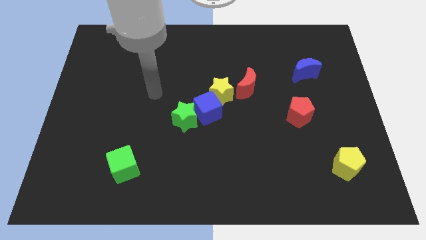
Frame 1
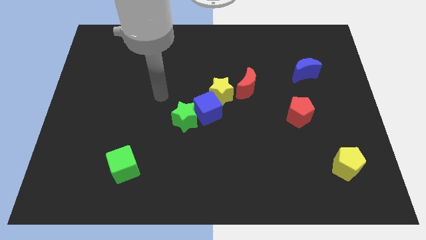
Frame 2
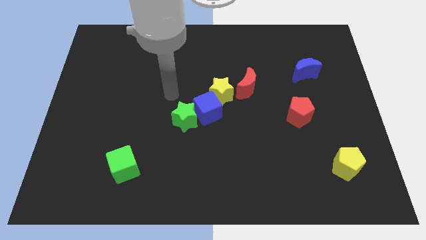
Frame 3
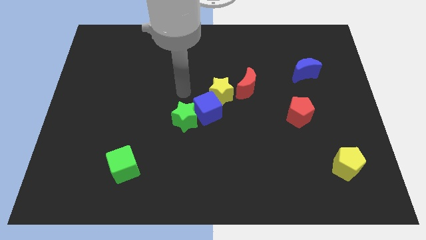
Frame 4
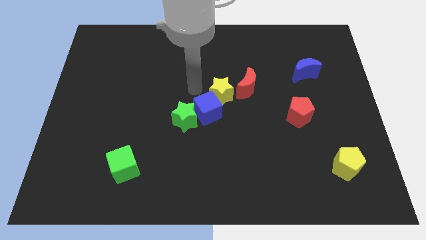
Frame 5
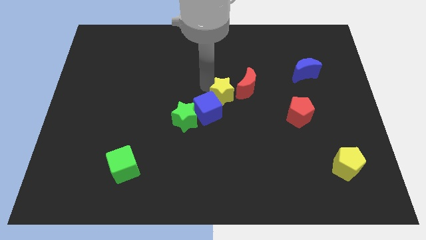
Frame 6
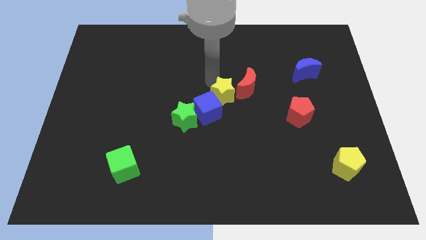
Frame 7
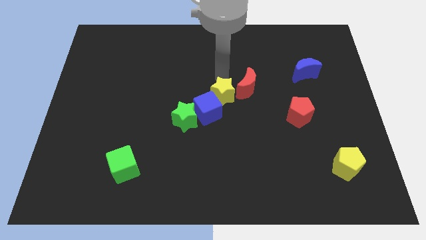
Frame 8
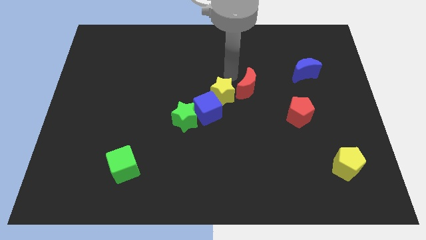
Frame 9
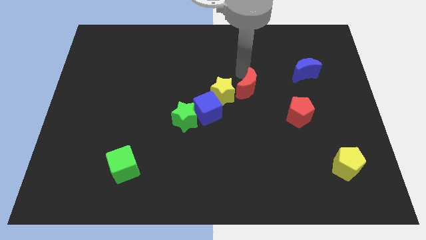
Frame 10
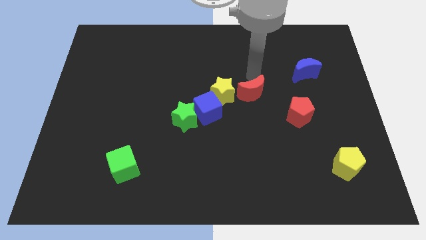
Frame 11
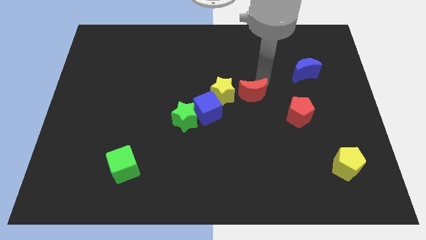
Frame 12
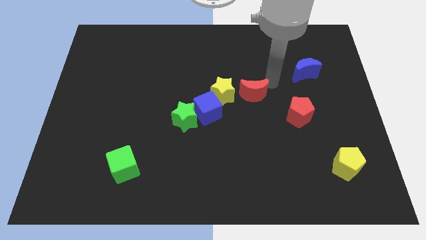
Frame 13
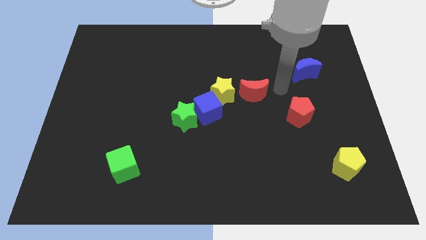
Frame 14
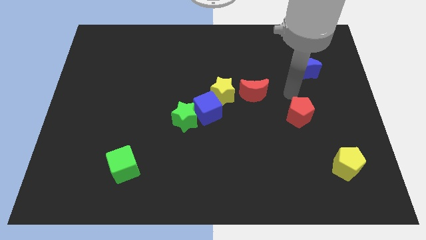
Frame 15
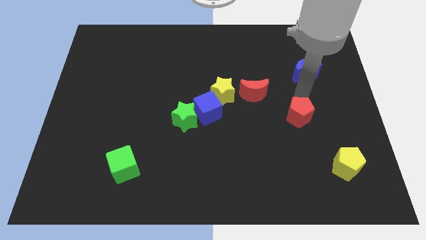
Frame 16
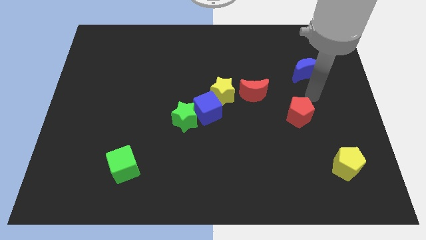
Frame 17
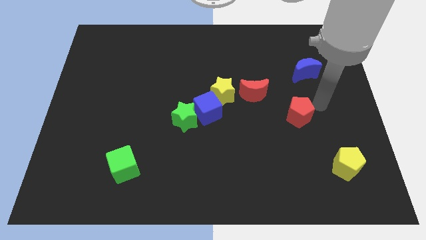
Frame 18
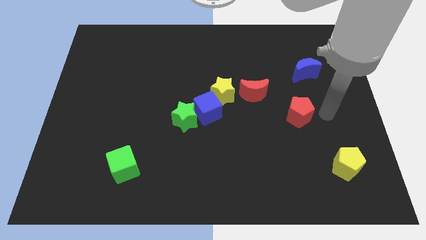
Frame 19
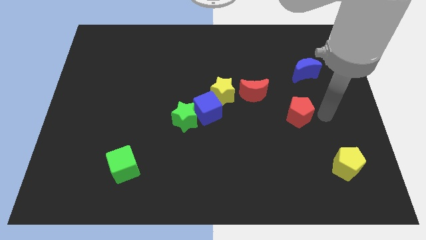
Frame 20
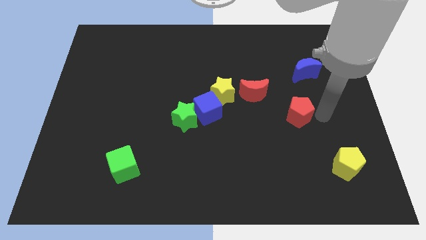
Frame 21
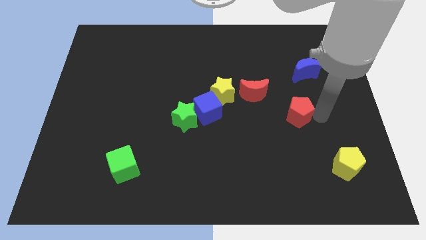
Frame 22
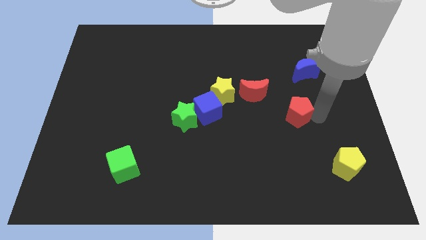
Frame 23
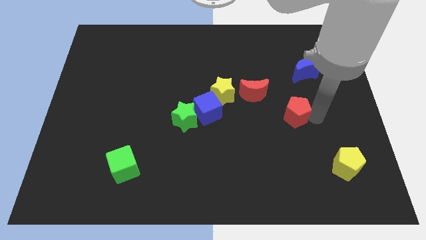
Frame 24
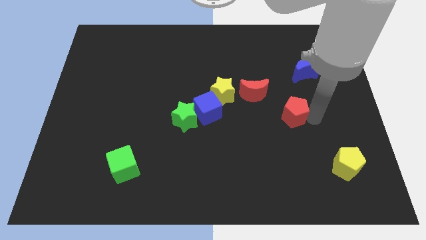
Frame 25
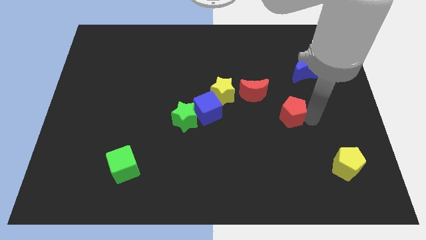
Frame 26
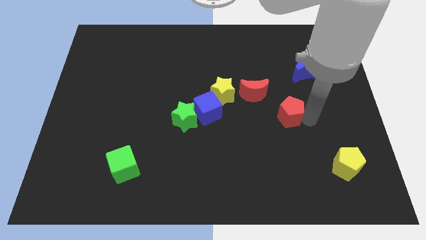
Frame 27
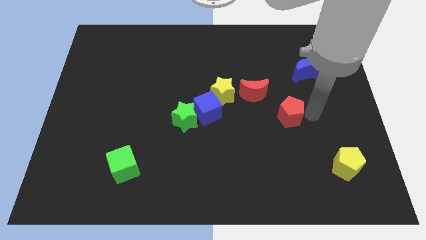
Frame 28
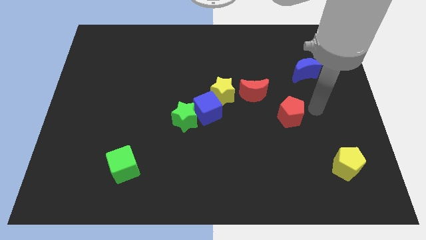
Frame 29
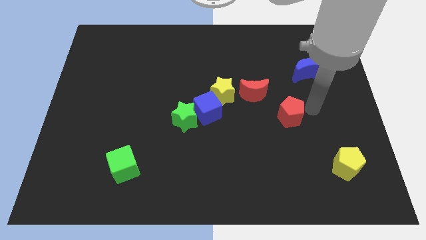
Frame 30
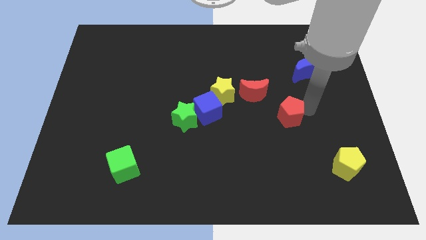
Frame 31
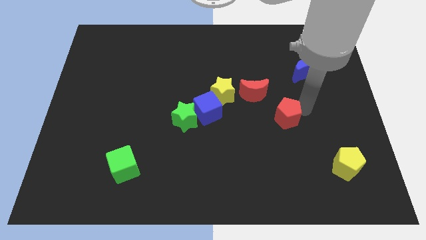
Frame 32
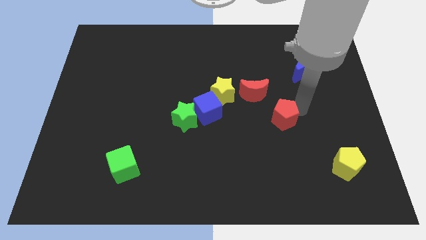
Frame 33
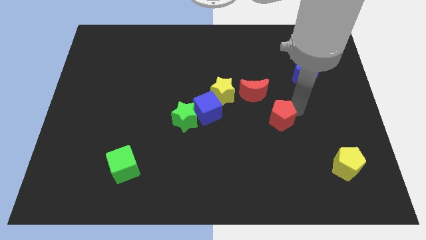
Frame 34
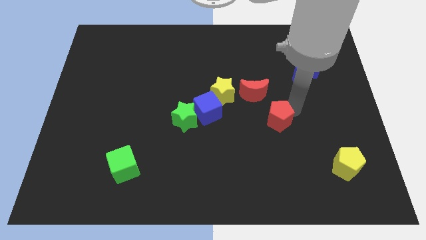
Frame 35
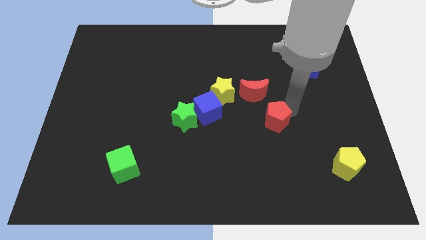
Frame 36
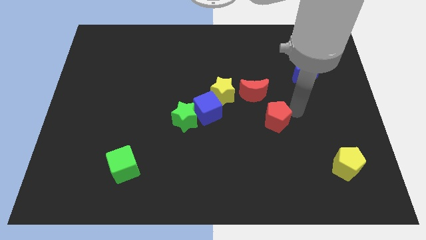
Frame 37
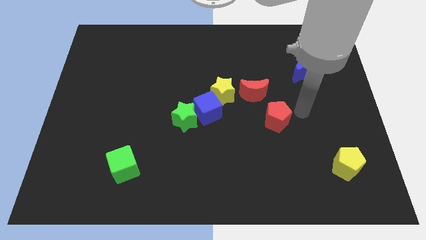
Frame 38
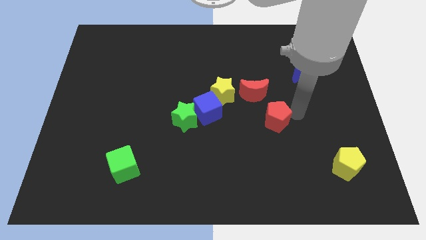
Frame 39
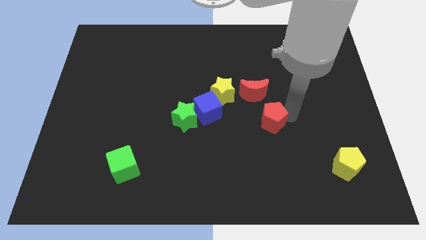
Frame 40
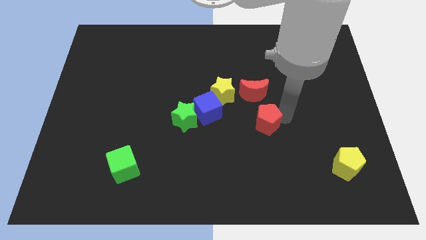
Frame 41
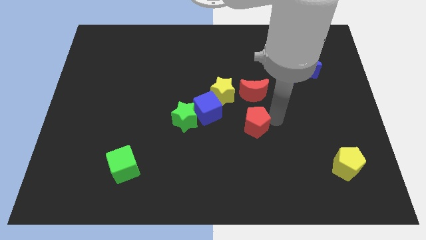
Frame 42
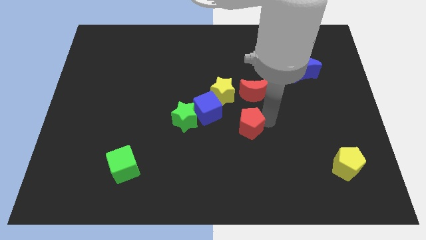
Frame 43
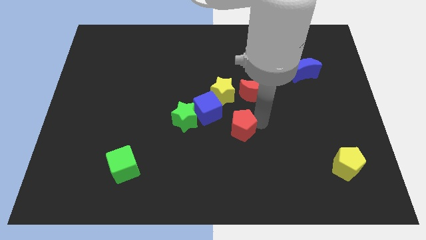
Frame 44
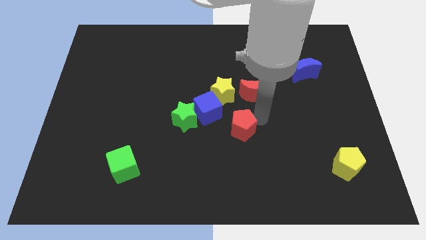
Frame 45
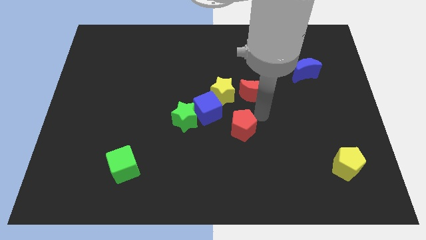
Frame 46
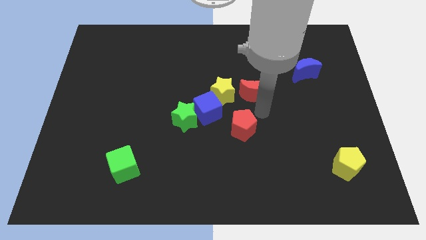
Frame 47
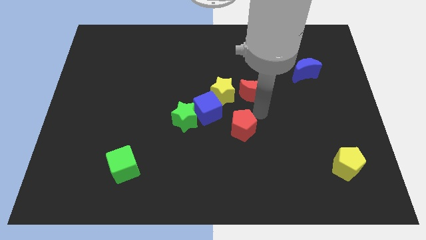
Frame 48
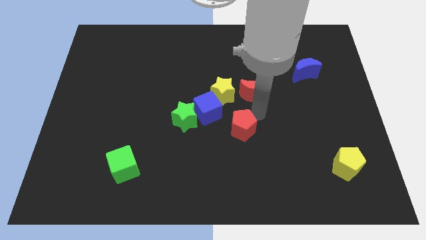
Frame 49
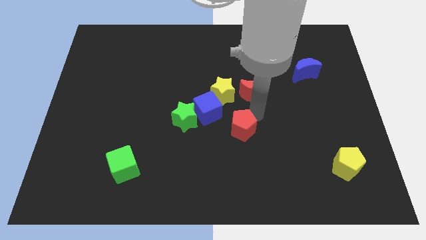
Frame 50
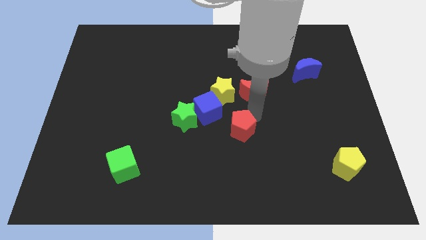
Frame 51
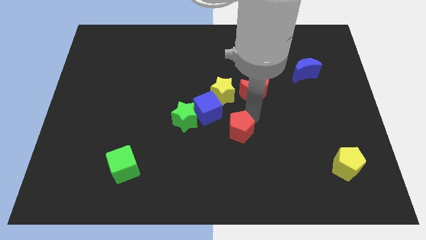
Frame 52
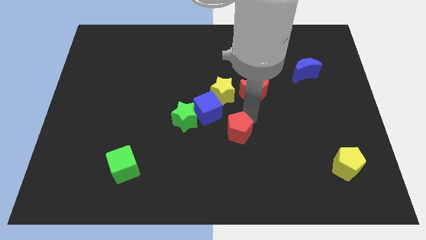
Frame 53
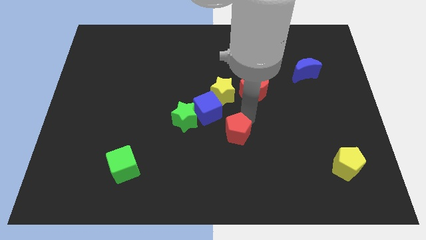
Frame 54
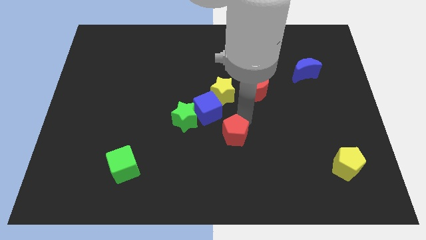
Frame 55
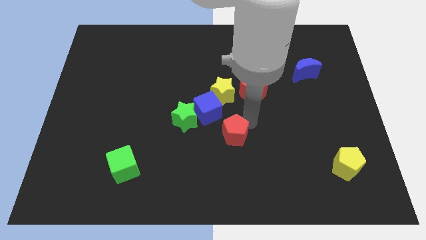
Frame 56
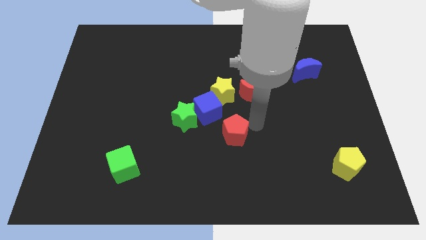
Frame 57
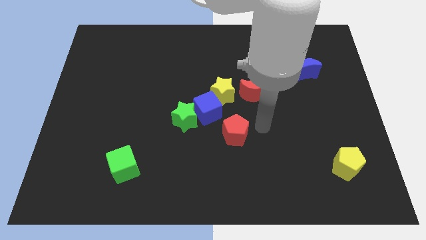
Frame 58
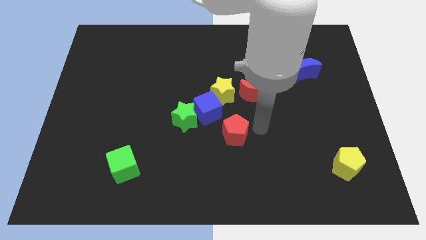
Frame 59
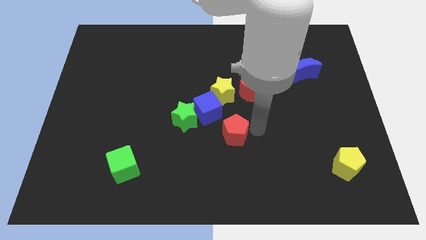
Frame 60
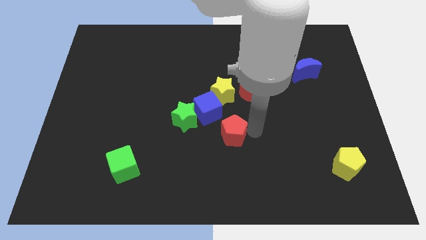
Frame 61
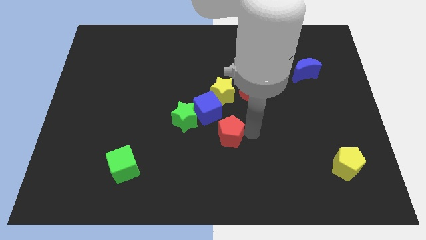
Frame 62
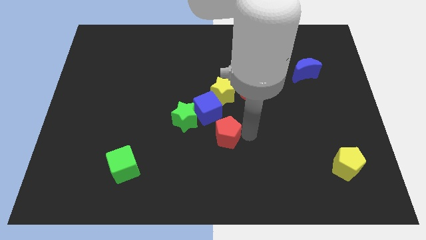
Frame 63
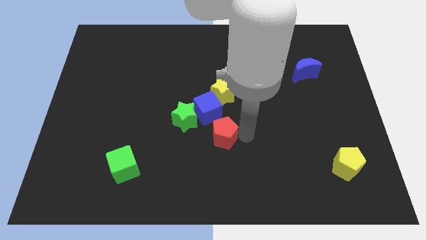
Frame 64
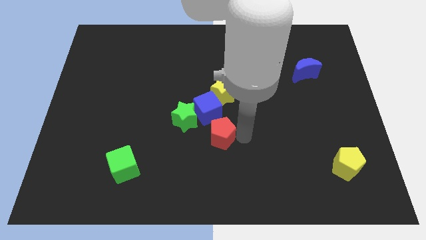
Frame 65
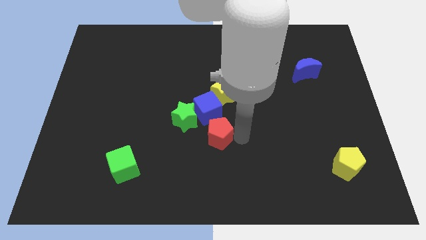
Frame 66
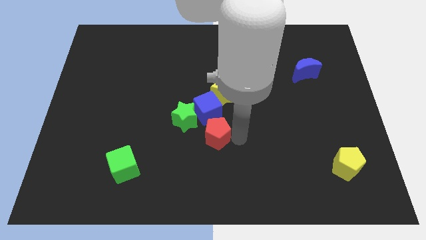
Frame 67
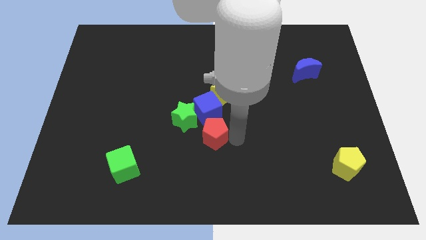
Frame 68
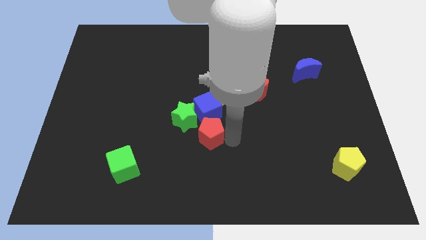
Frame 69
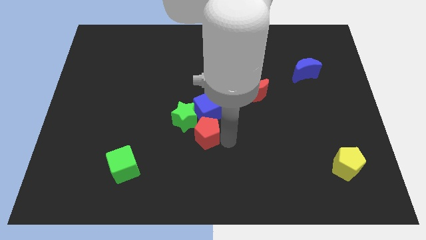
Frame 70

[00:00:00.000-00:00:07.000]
move the red pentagon to the left

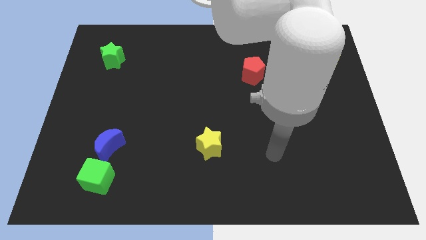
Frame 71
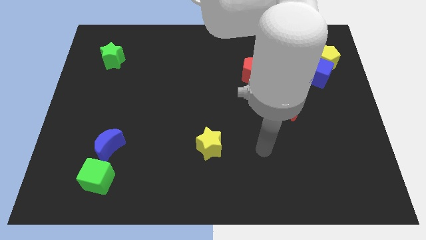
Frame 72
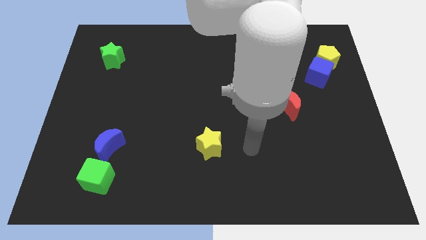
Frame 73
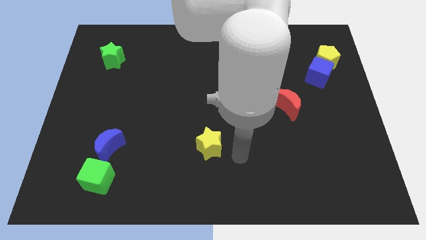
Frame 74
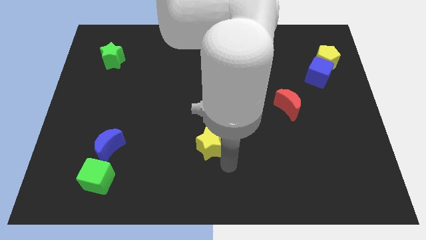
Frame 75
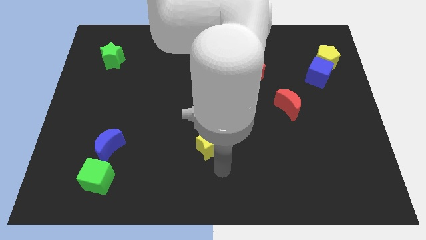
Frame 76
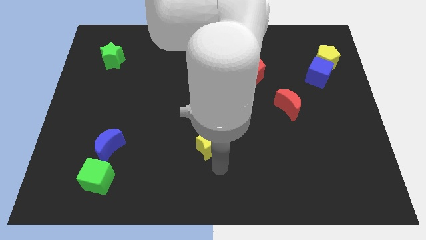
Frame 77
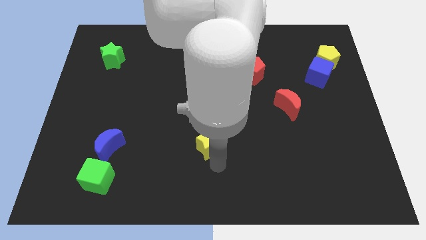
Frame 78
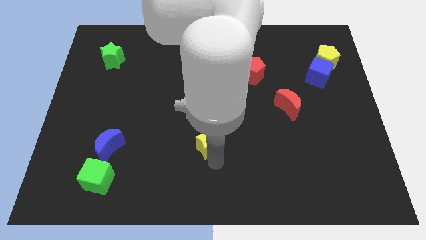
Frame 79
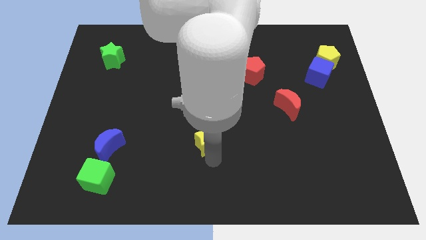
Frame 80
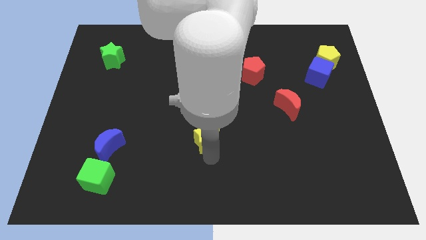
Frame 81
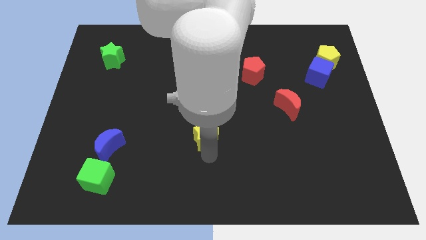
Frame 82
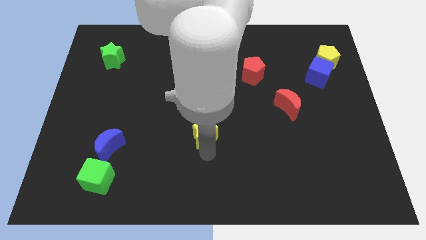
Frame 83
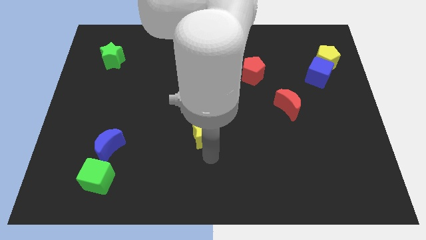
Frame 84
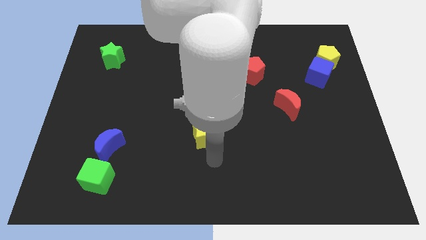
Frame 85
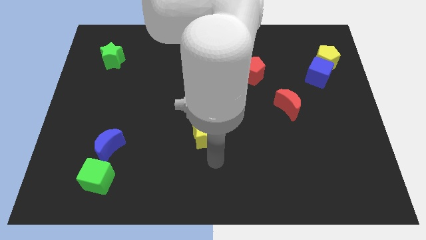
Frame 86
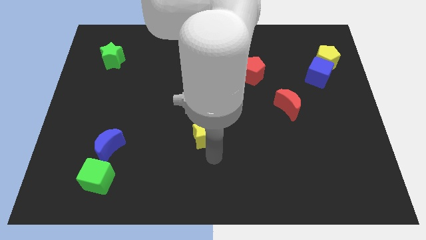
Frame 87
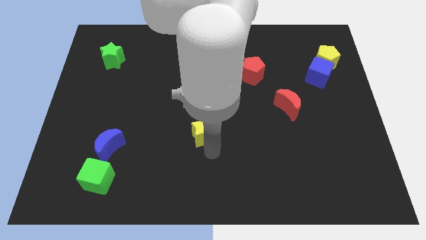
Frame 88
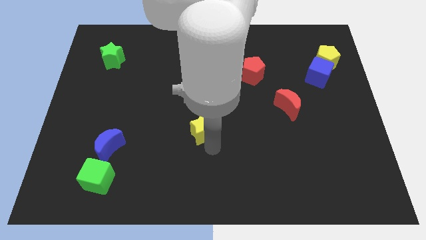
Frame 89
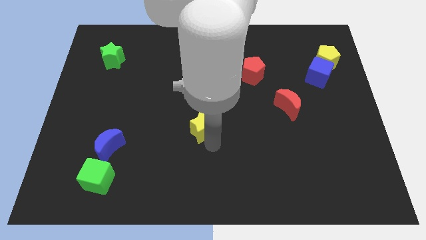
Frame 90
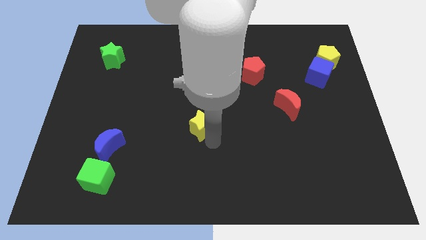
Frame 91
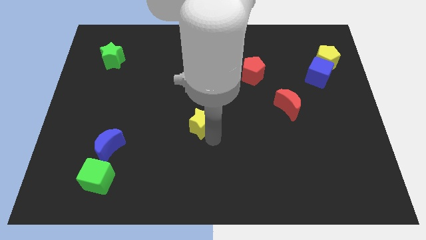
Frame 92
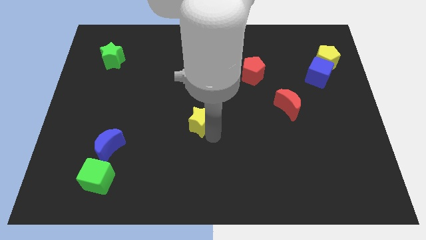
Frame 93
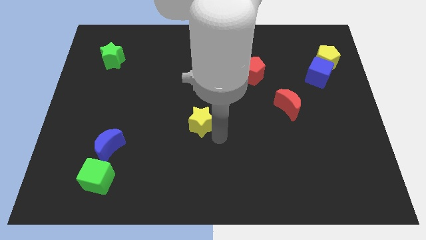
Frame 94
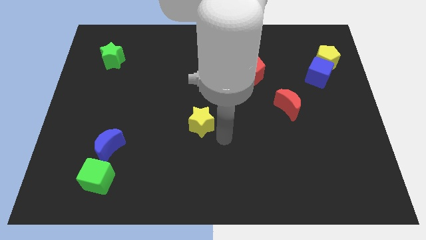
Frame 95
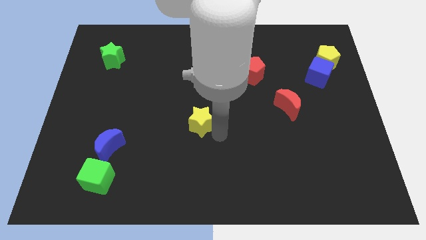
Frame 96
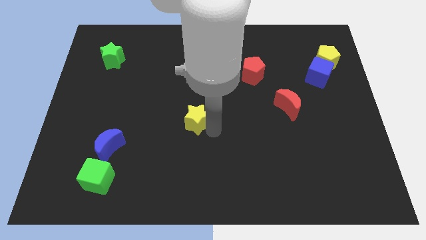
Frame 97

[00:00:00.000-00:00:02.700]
push the yellow star slightly diagonally up and to the left
